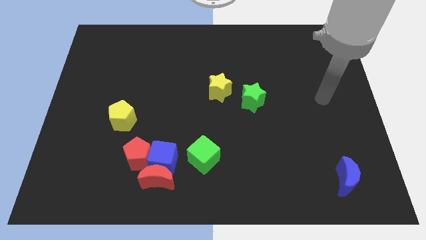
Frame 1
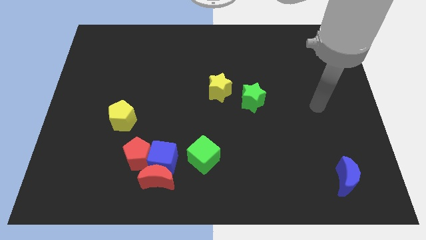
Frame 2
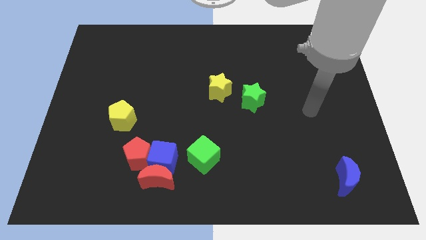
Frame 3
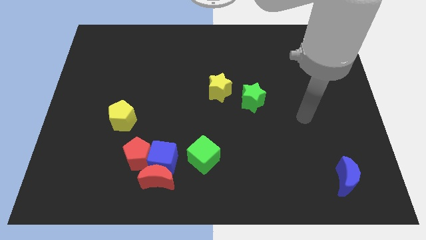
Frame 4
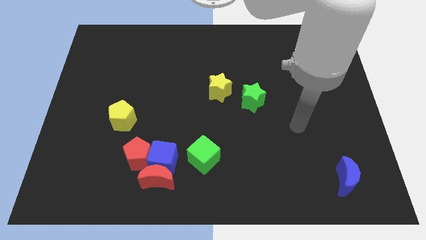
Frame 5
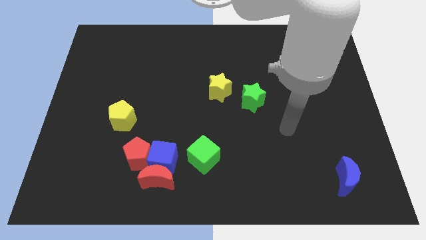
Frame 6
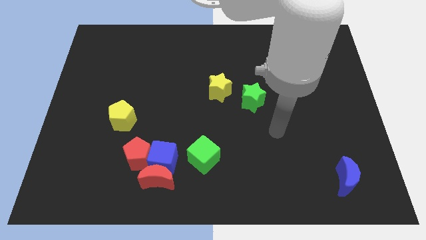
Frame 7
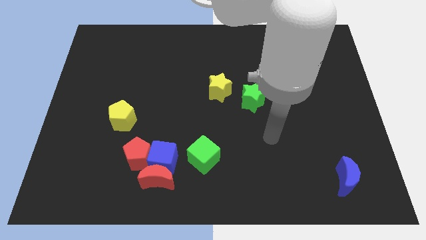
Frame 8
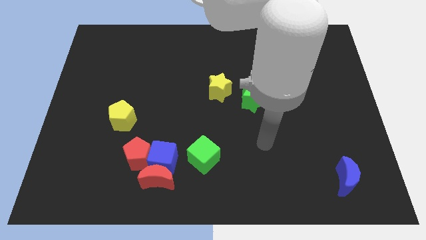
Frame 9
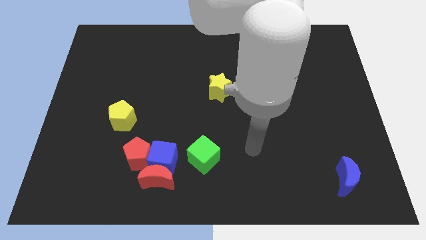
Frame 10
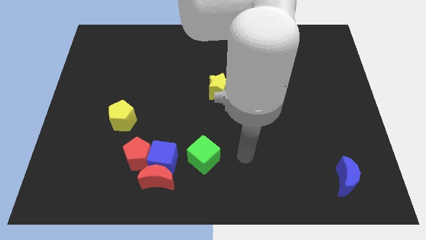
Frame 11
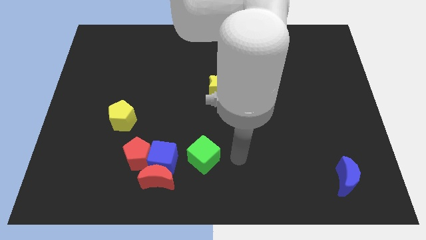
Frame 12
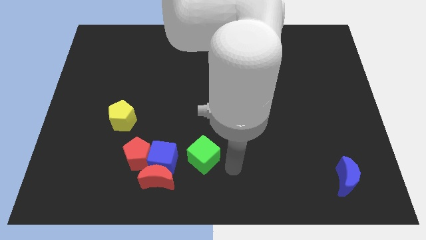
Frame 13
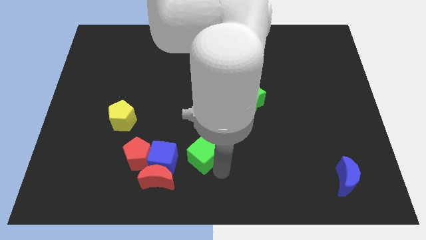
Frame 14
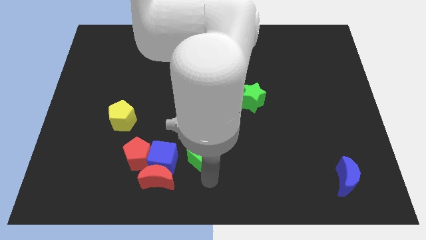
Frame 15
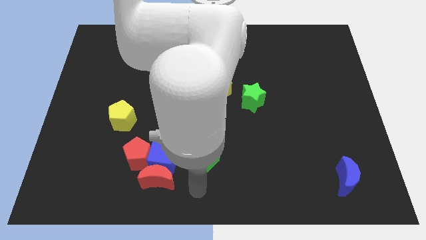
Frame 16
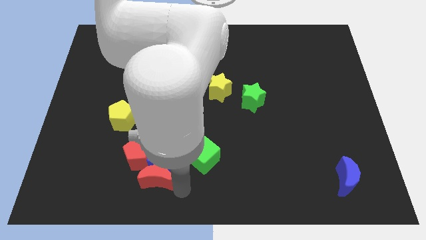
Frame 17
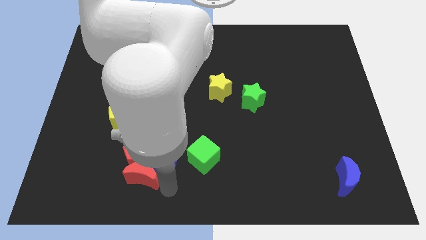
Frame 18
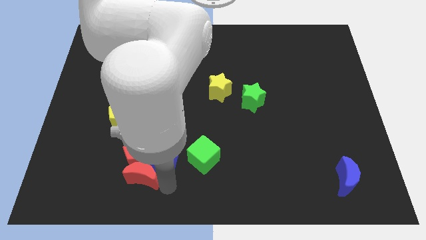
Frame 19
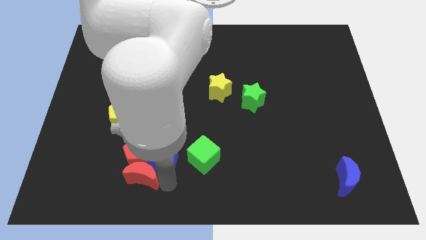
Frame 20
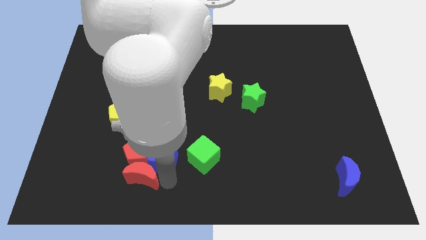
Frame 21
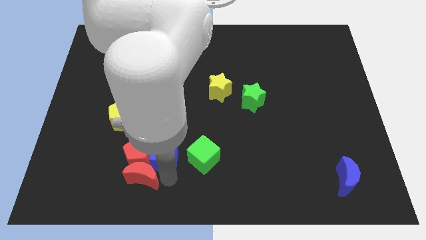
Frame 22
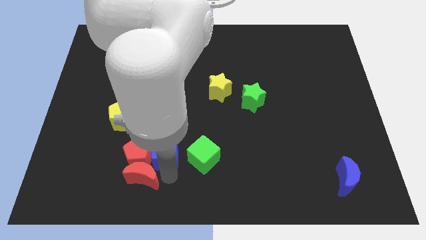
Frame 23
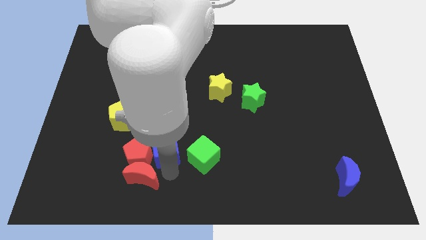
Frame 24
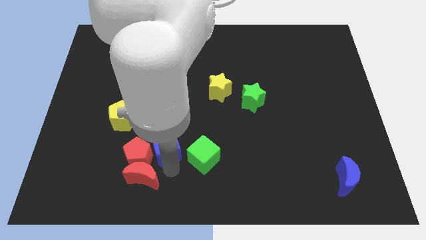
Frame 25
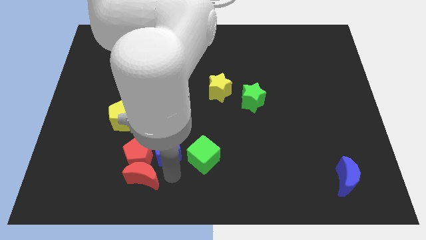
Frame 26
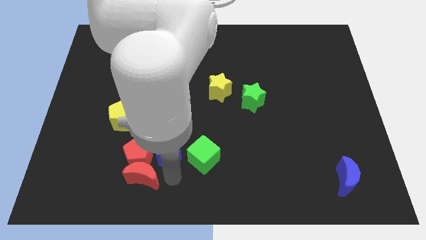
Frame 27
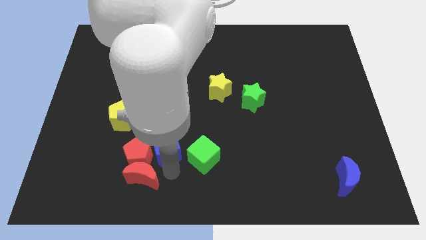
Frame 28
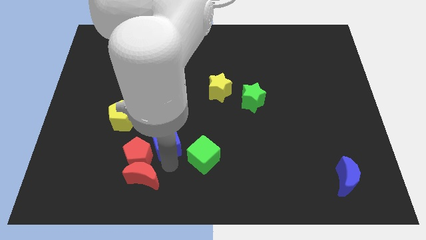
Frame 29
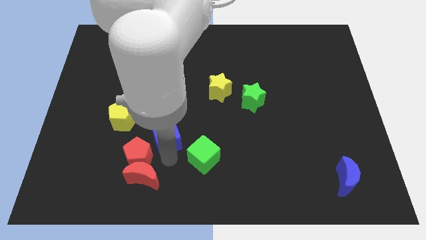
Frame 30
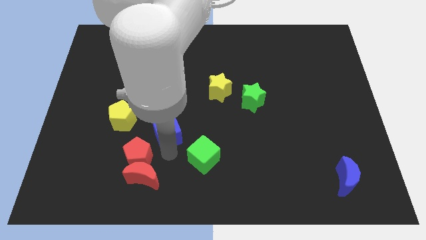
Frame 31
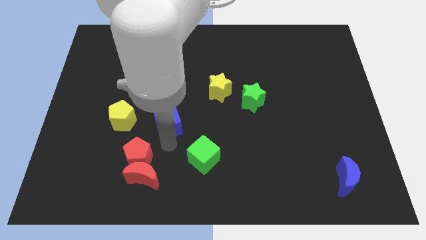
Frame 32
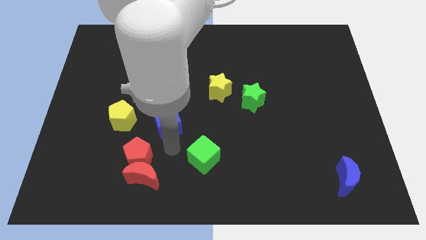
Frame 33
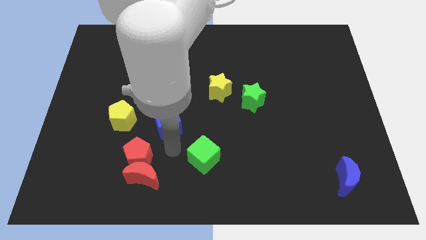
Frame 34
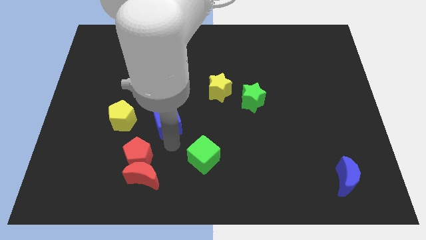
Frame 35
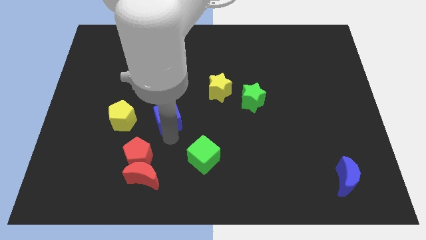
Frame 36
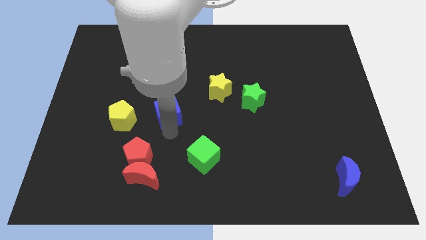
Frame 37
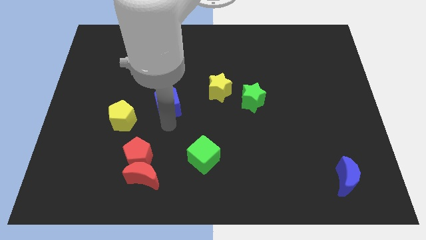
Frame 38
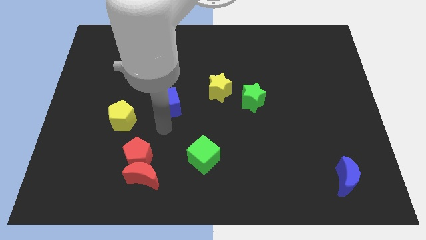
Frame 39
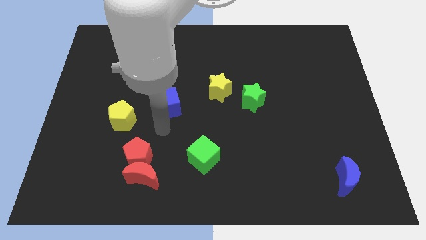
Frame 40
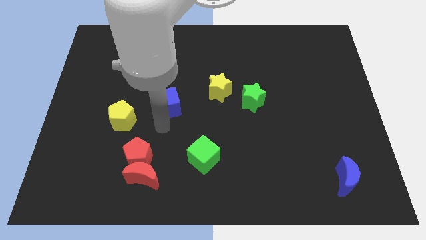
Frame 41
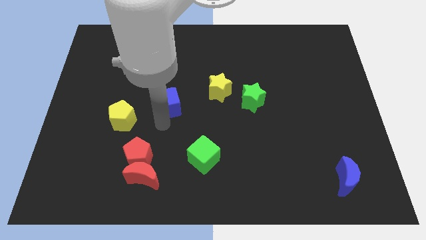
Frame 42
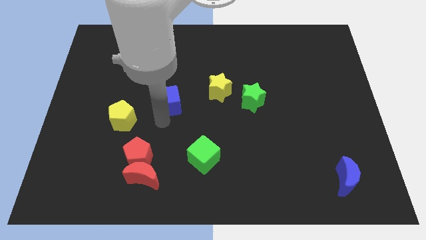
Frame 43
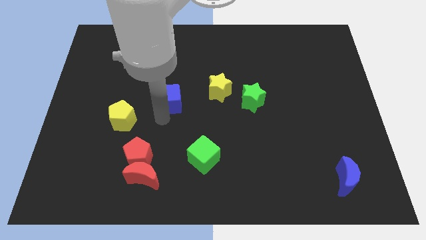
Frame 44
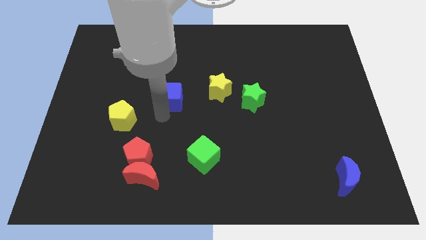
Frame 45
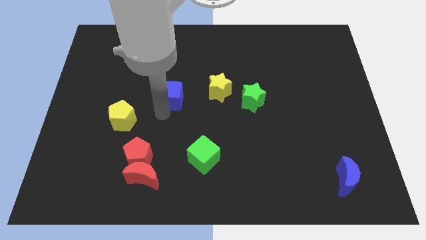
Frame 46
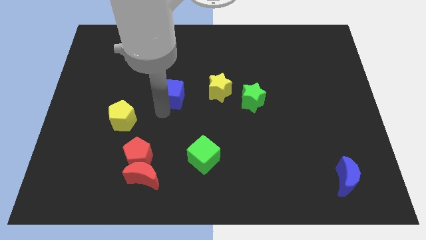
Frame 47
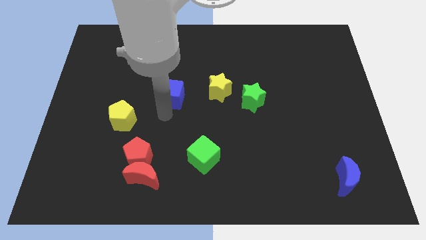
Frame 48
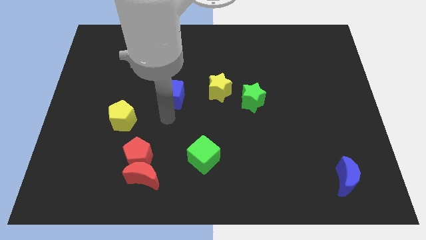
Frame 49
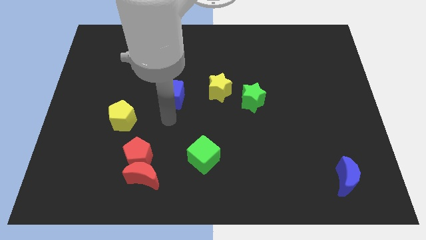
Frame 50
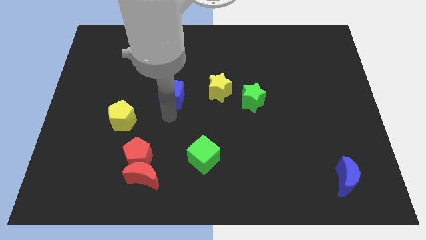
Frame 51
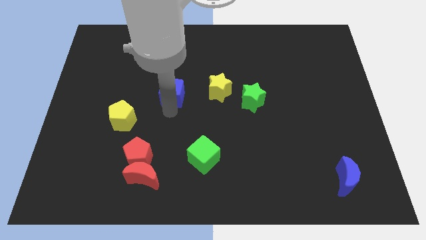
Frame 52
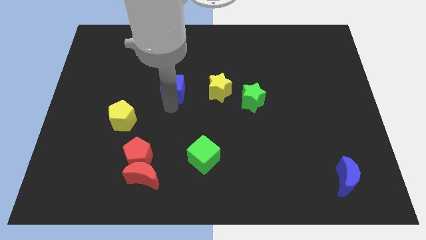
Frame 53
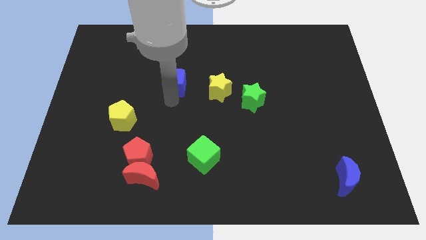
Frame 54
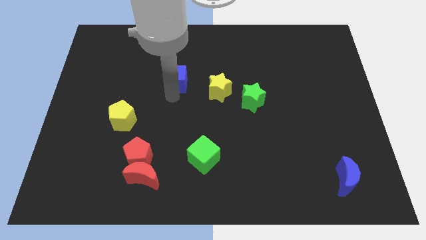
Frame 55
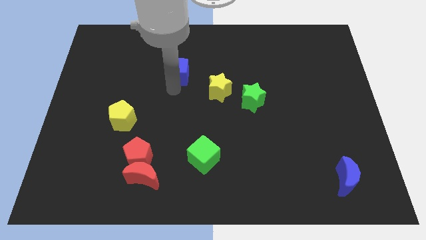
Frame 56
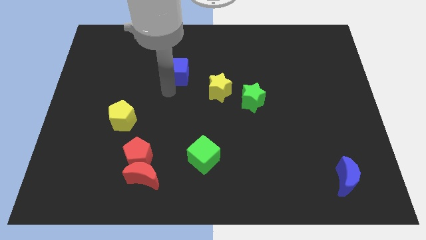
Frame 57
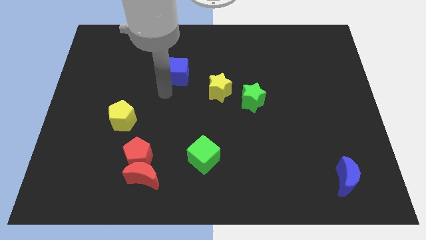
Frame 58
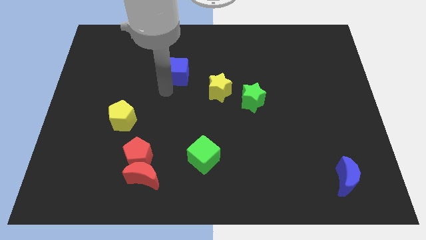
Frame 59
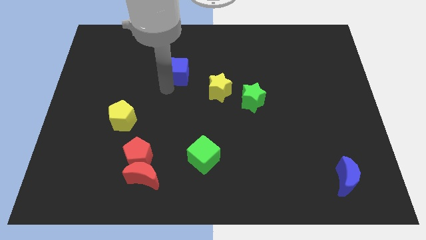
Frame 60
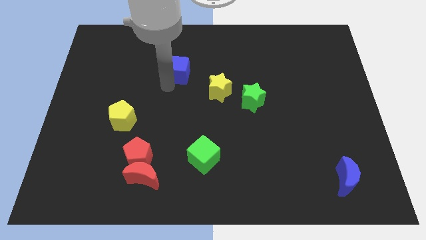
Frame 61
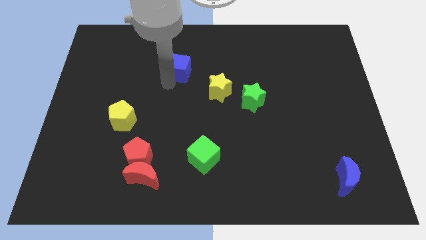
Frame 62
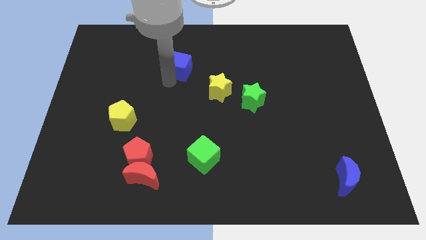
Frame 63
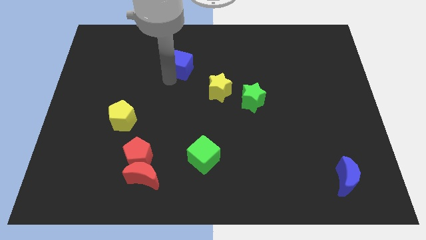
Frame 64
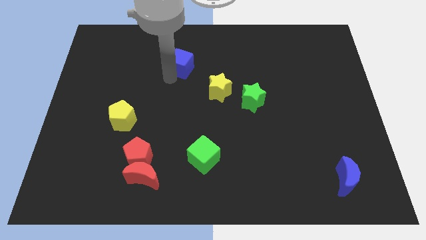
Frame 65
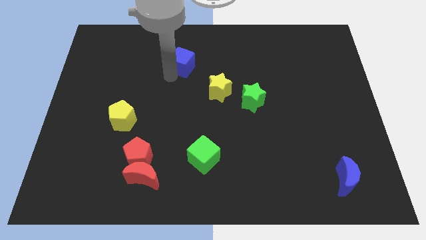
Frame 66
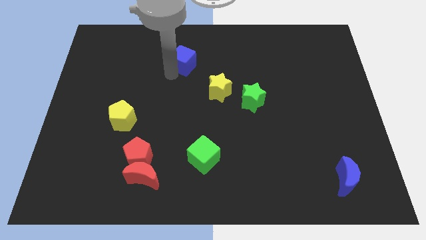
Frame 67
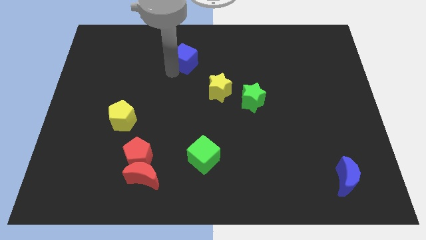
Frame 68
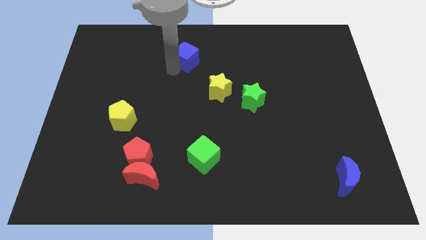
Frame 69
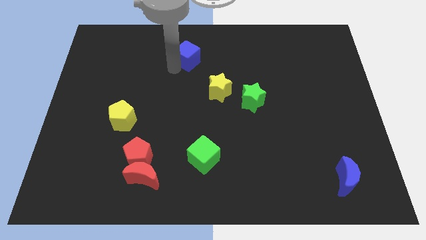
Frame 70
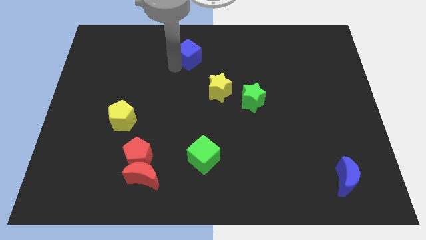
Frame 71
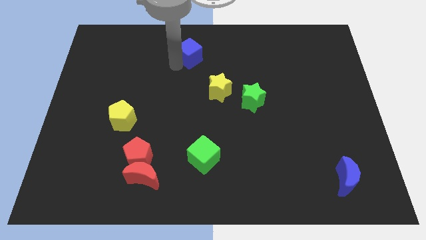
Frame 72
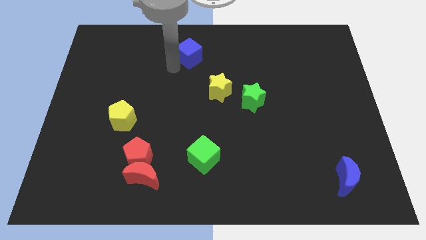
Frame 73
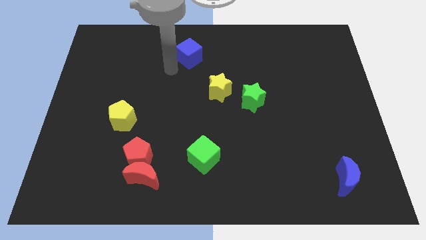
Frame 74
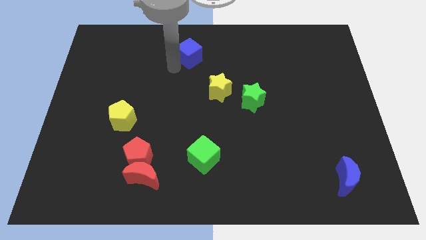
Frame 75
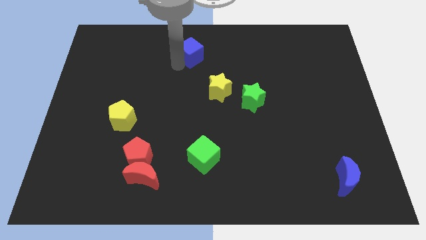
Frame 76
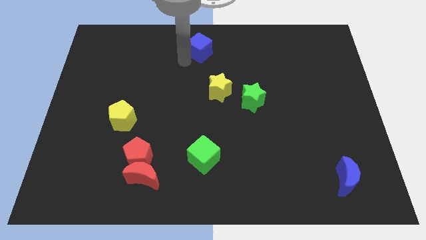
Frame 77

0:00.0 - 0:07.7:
move the blue cube to the top side
